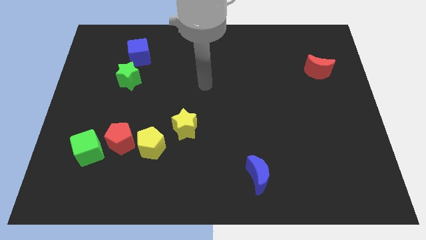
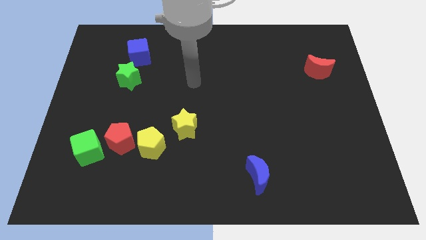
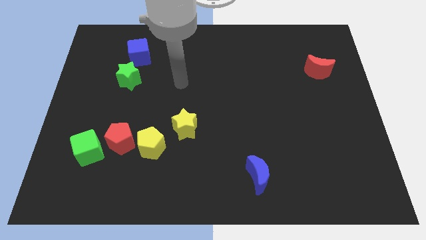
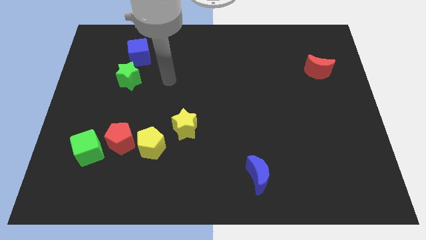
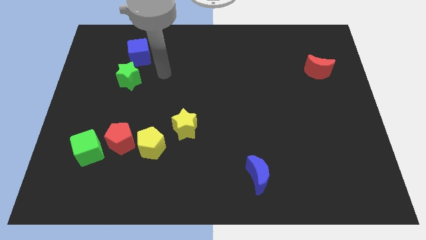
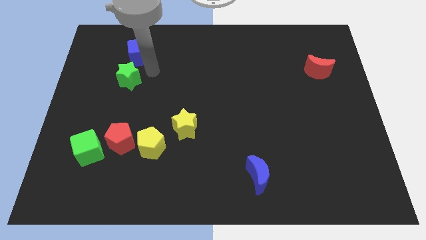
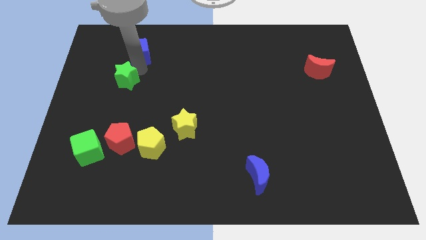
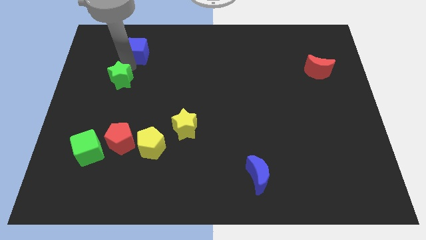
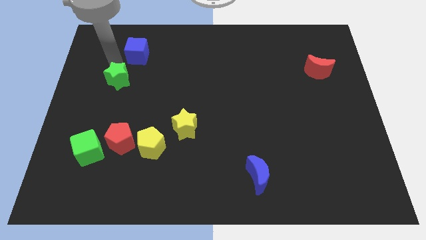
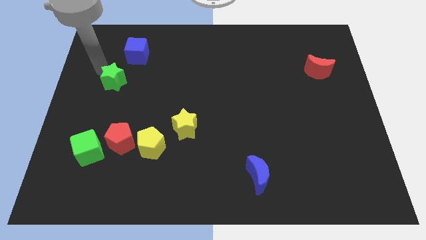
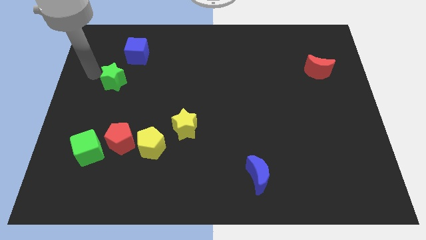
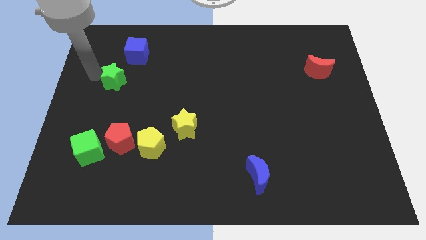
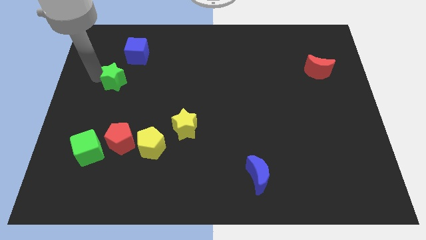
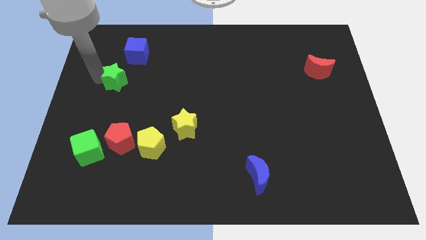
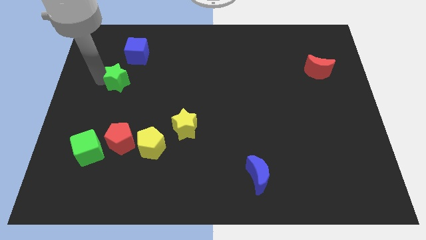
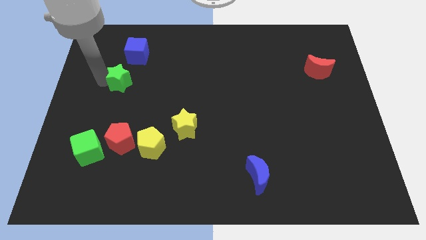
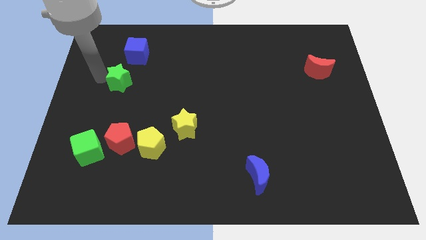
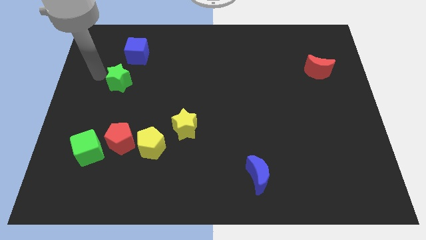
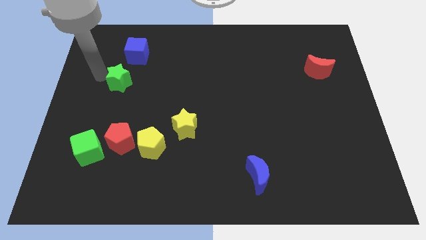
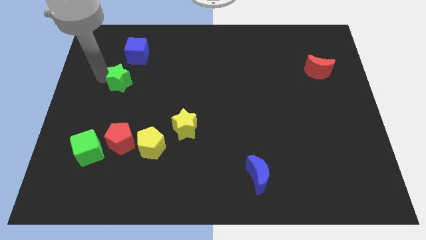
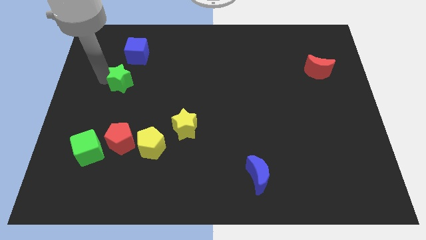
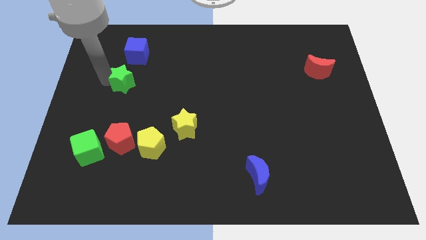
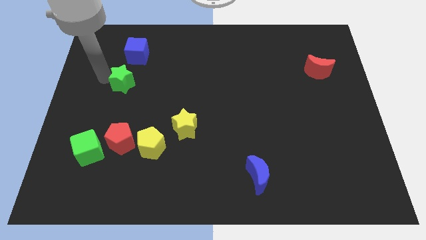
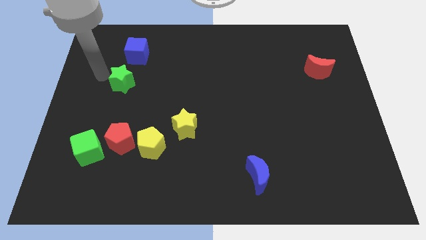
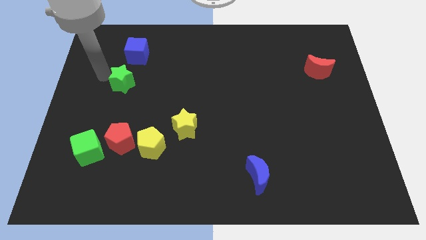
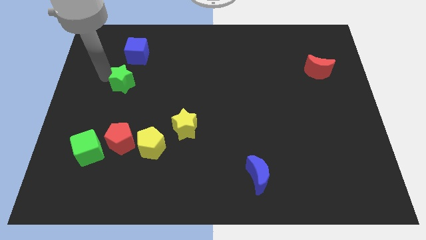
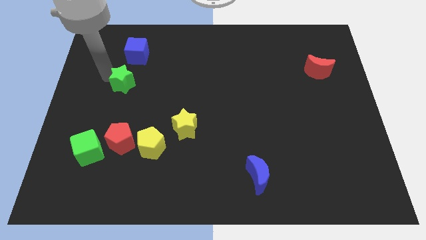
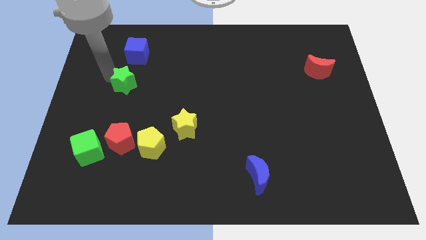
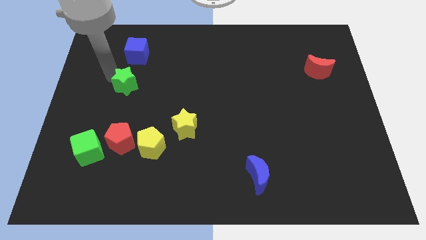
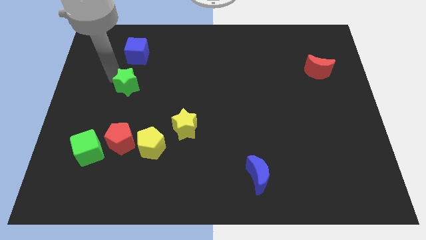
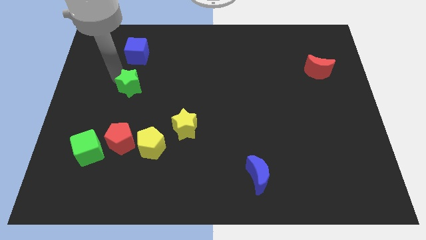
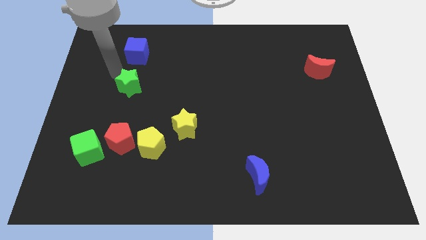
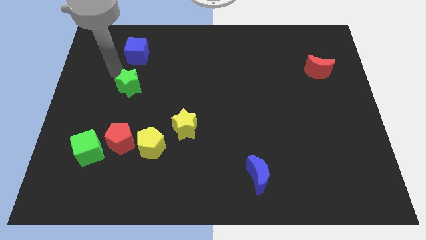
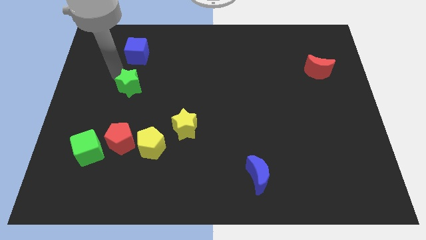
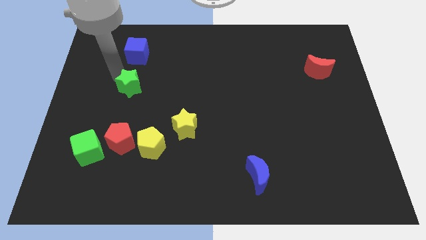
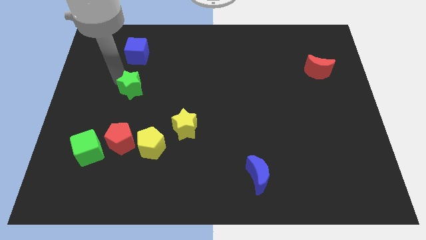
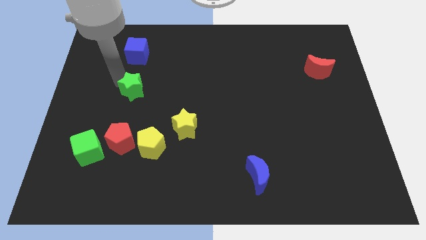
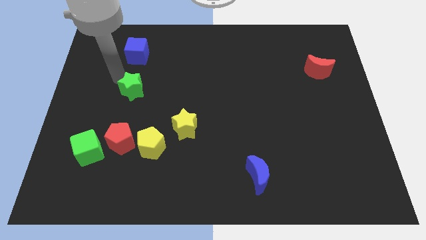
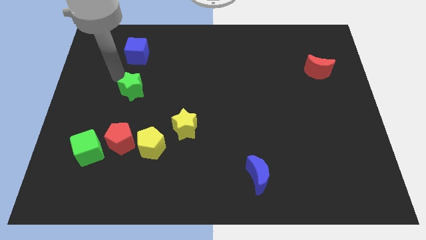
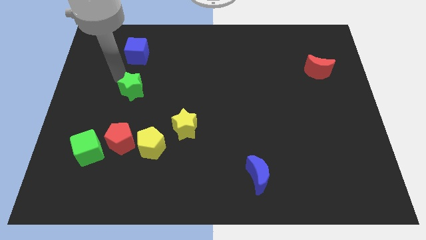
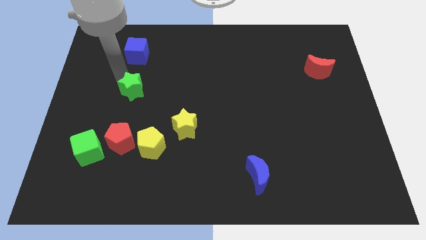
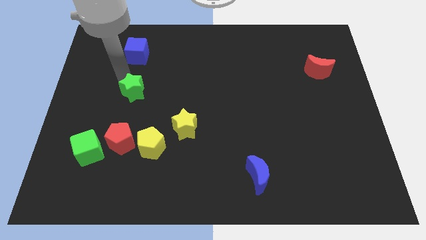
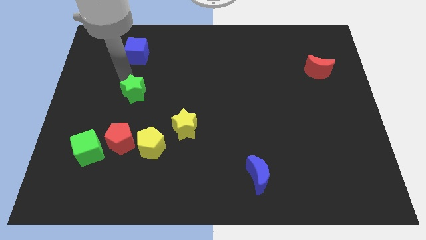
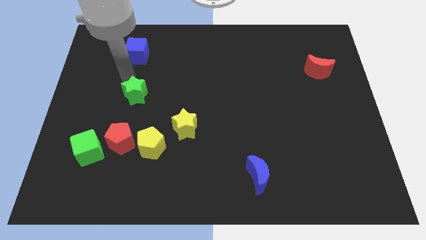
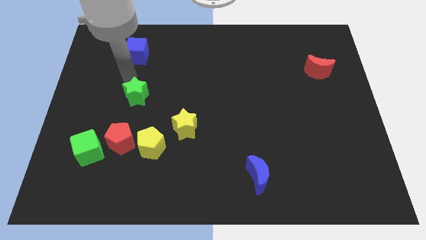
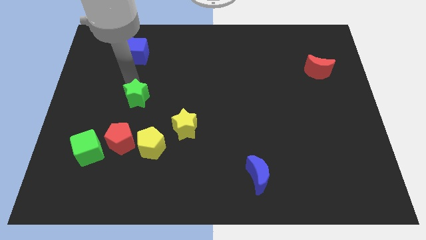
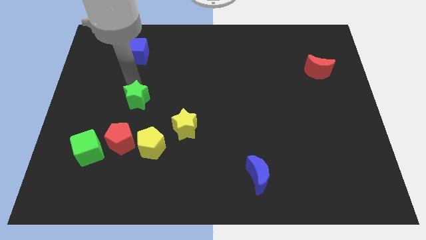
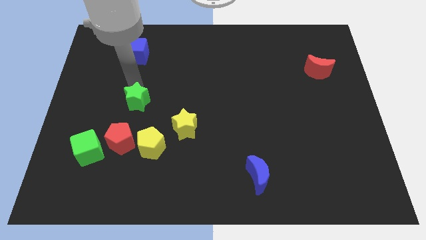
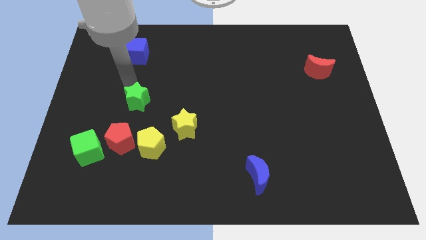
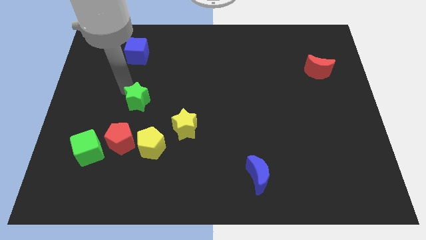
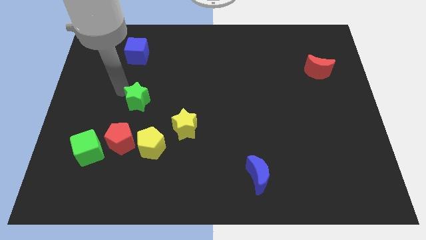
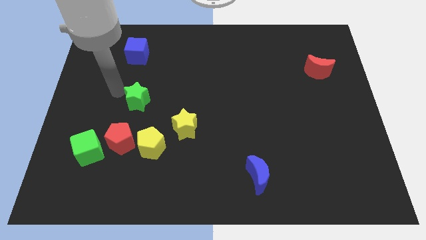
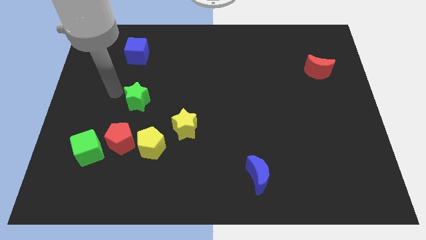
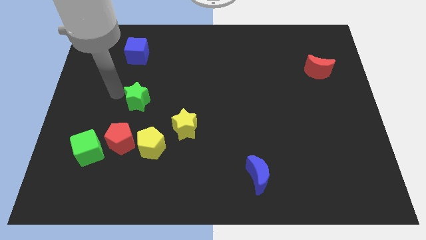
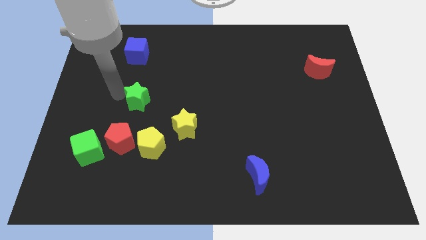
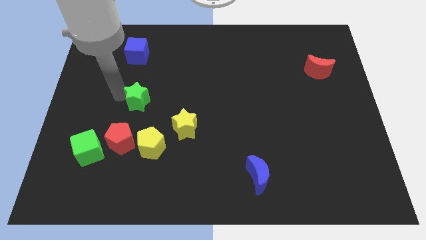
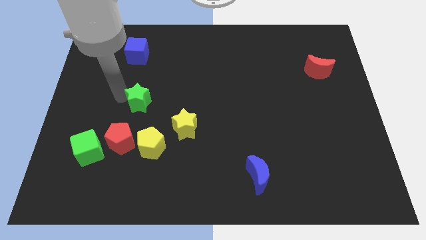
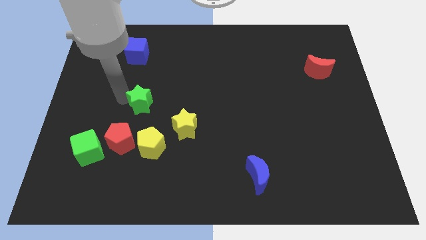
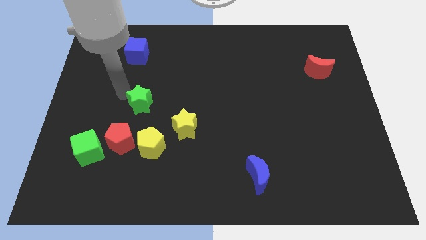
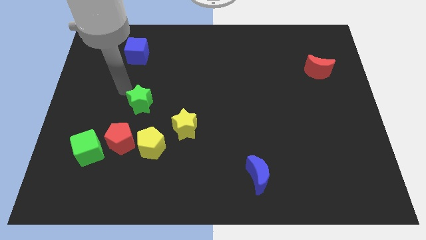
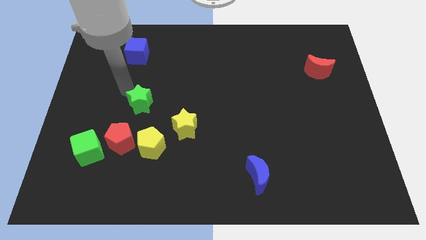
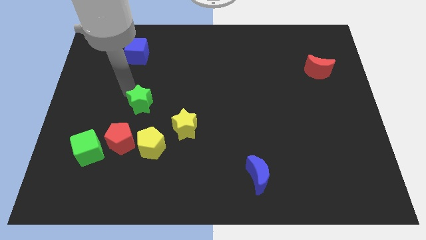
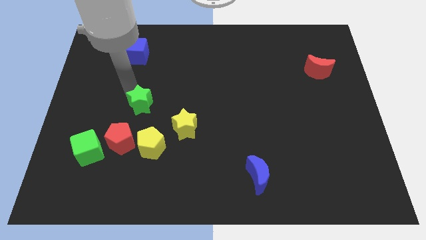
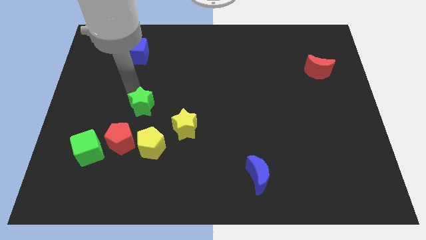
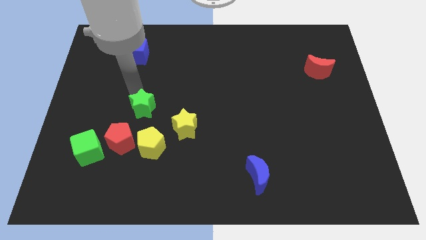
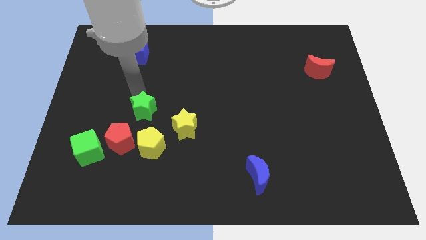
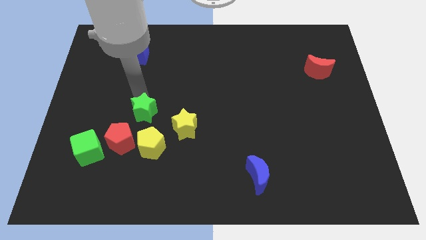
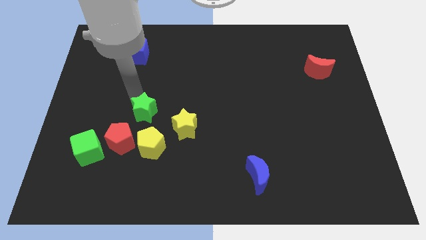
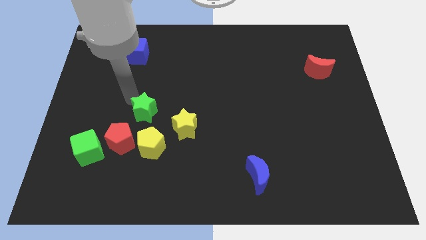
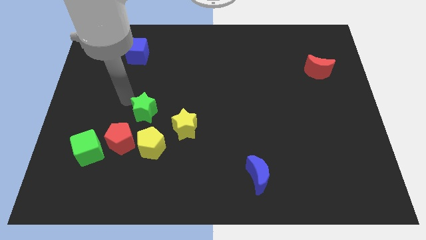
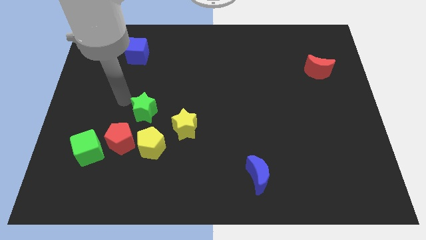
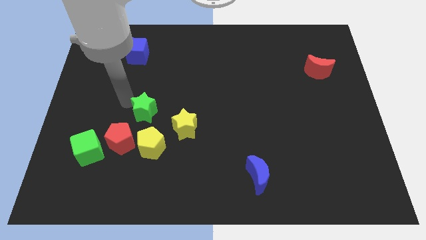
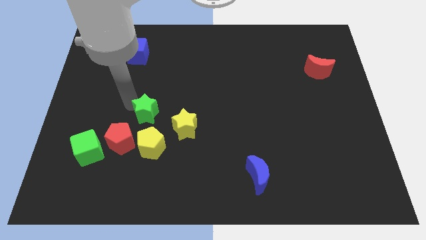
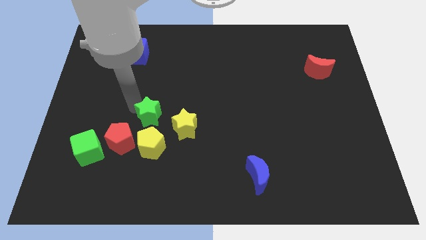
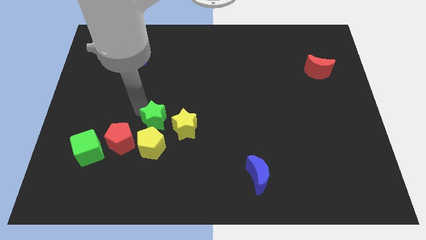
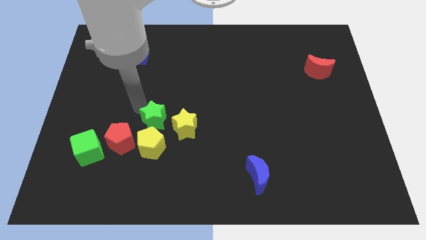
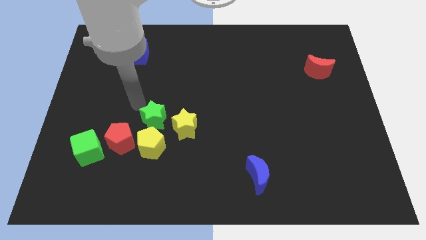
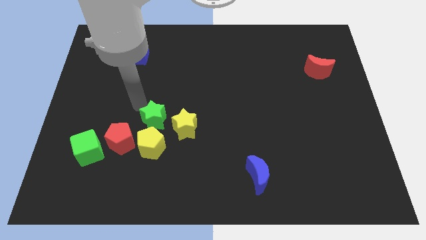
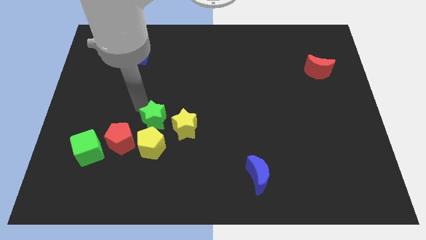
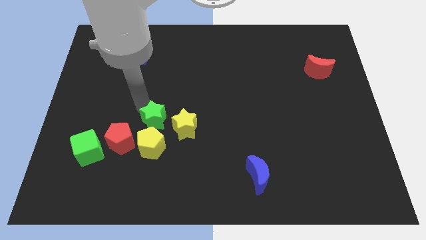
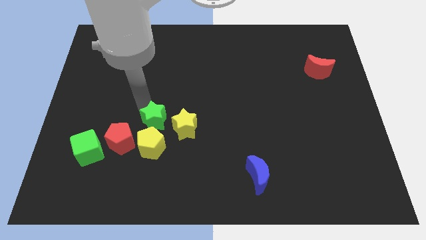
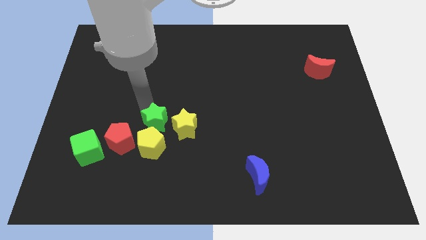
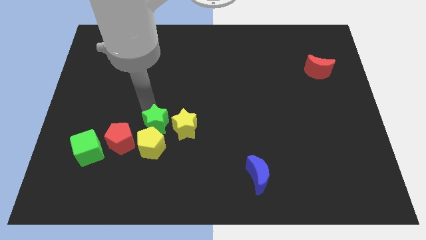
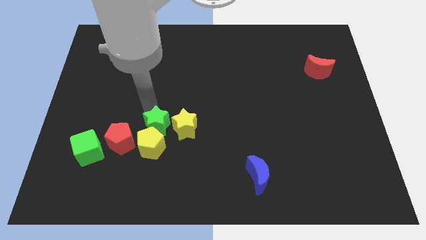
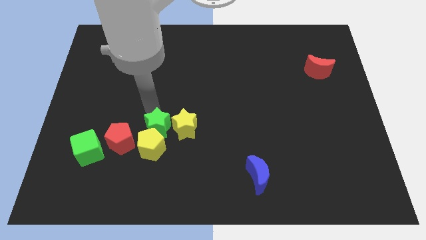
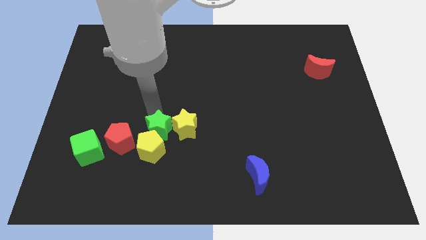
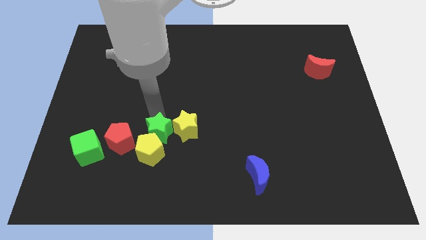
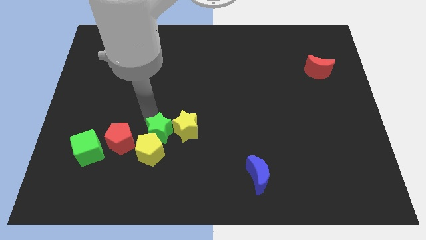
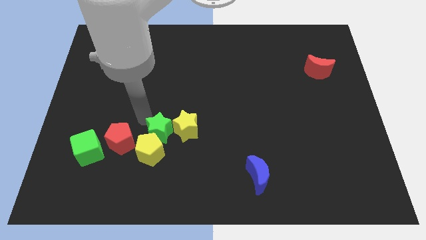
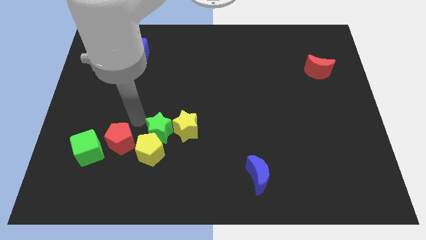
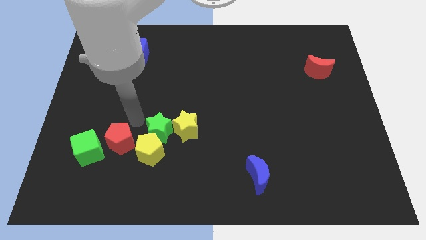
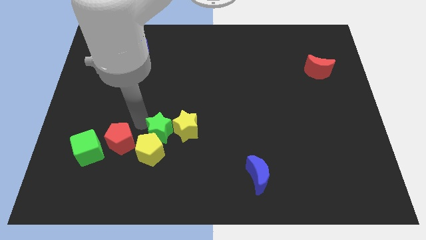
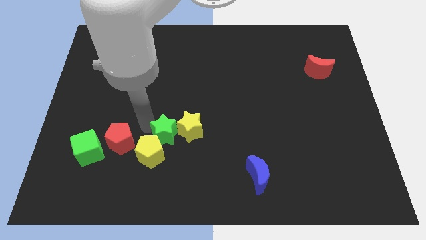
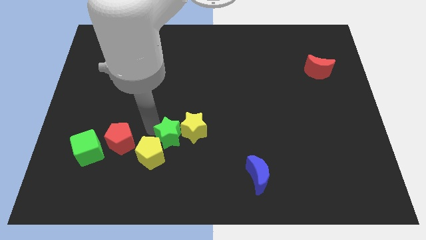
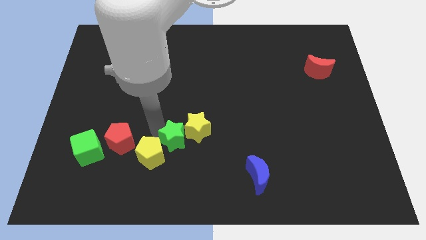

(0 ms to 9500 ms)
slide the green star down and right
